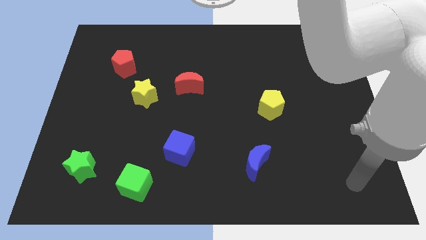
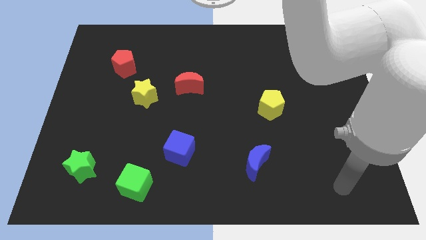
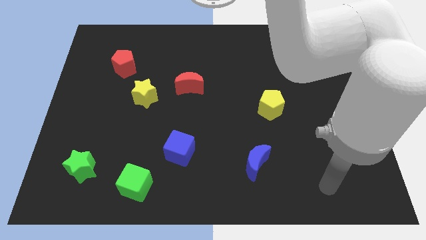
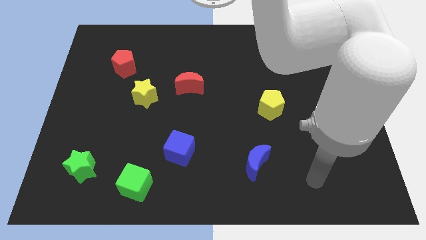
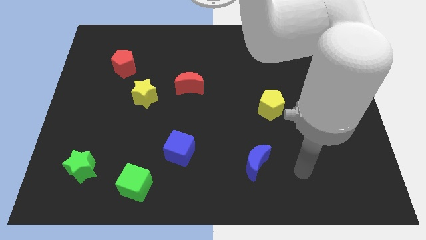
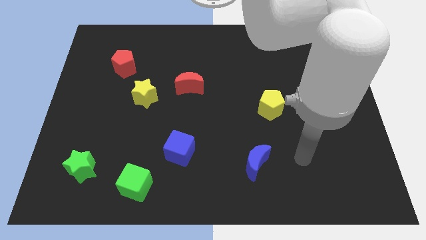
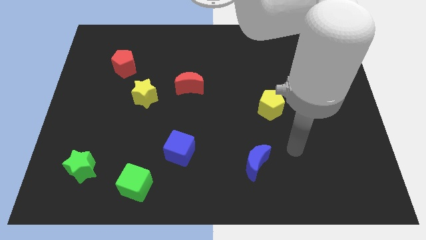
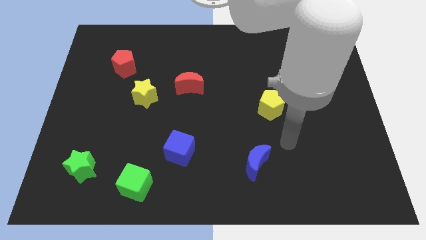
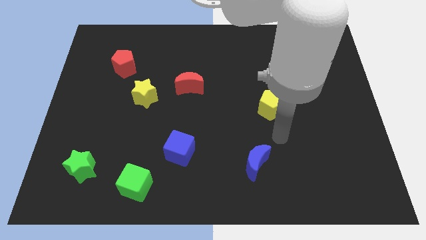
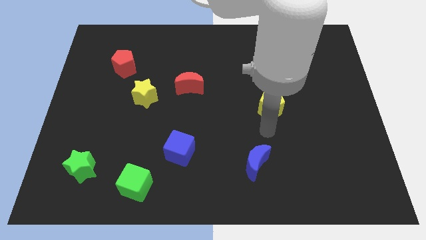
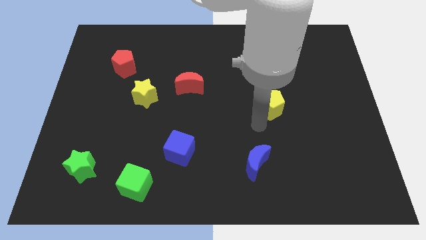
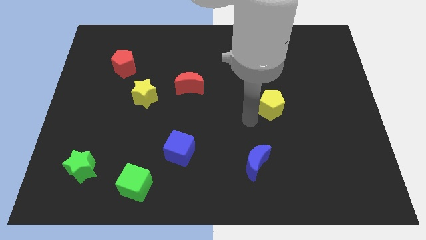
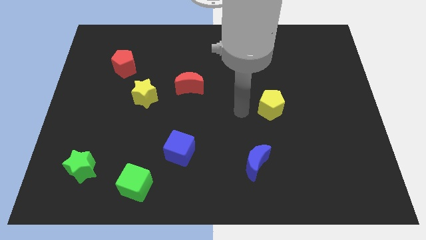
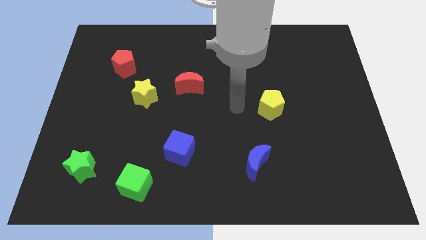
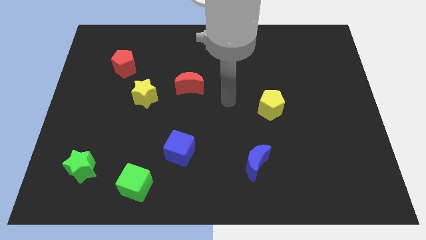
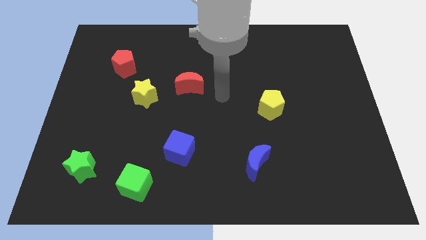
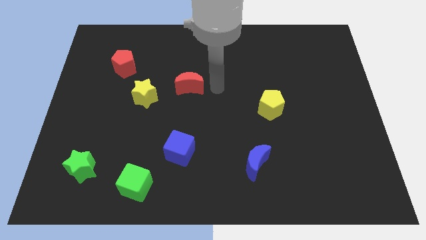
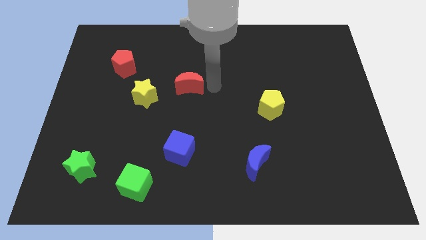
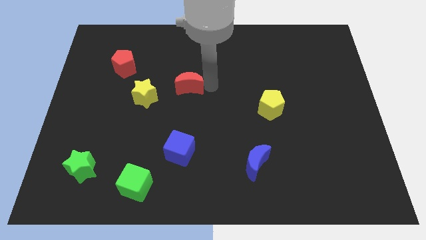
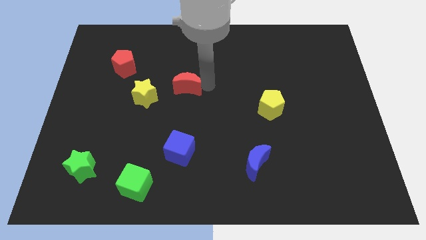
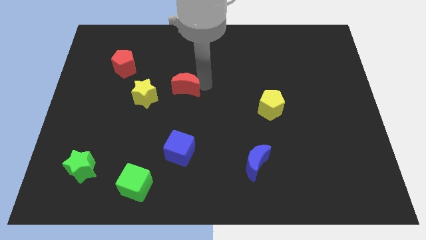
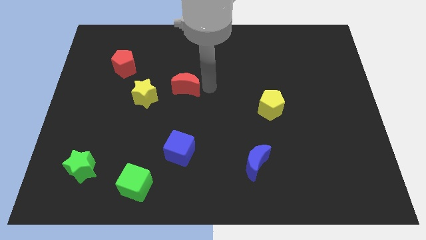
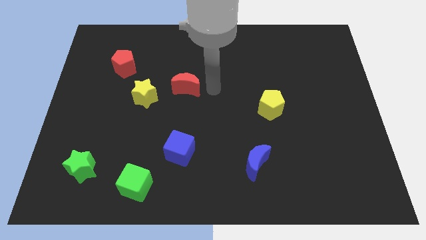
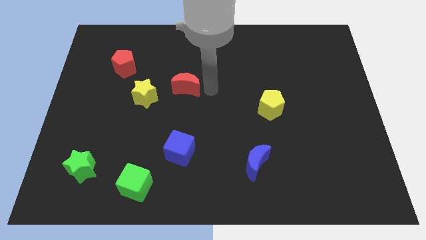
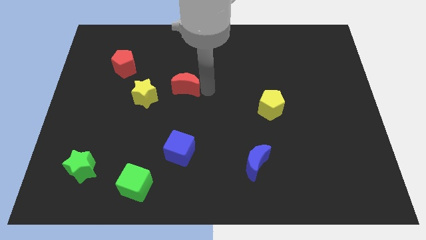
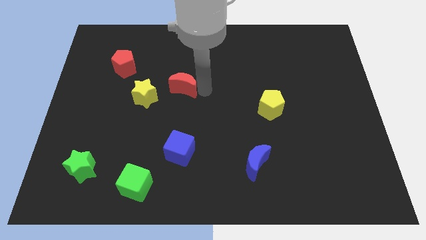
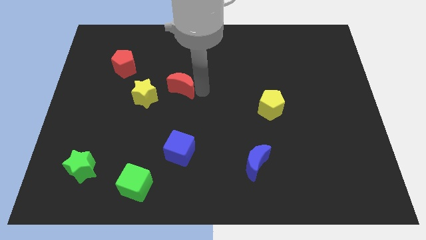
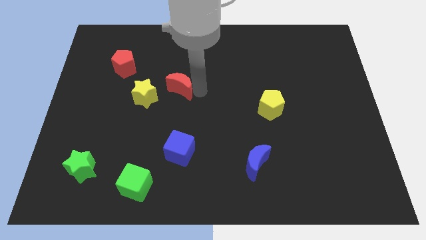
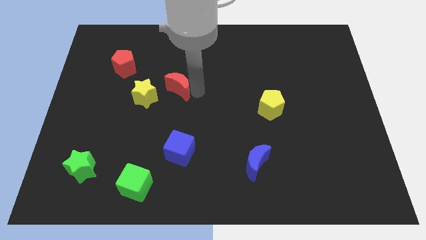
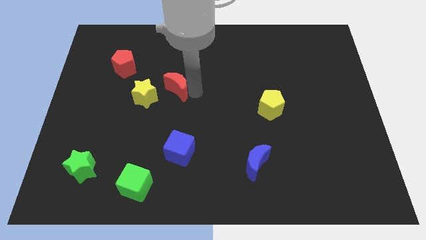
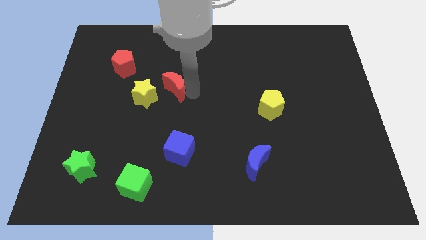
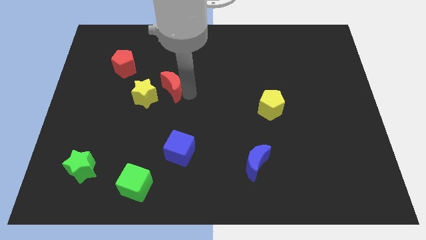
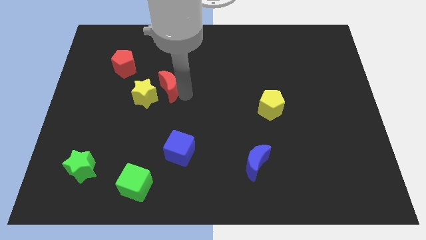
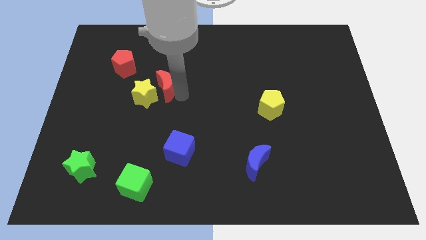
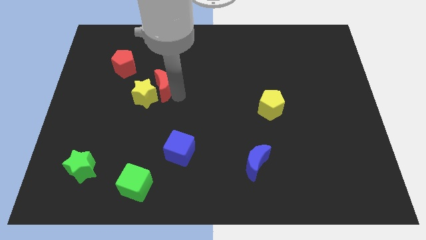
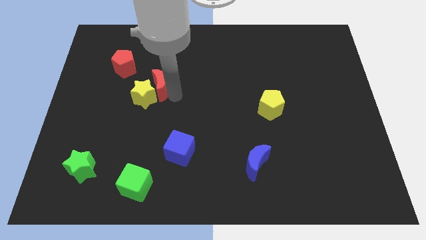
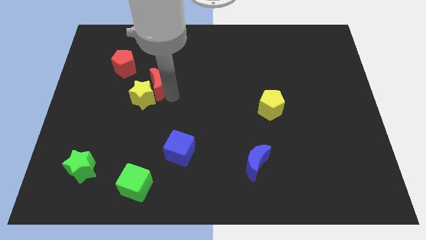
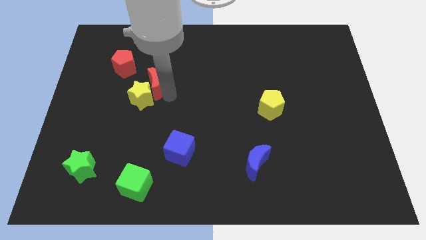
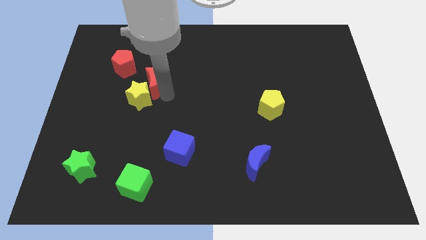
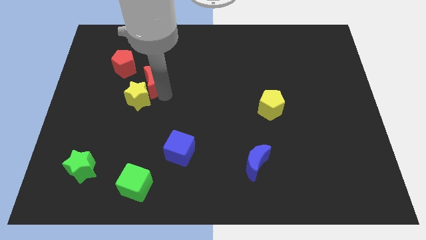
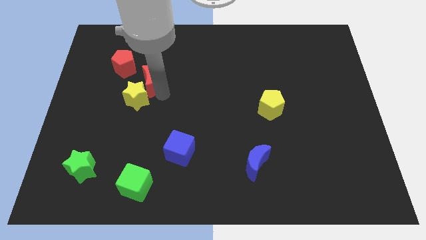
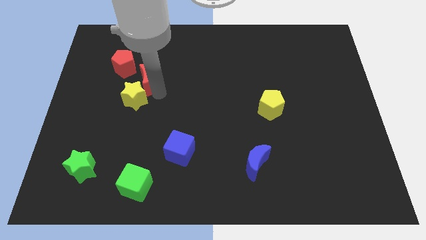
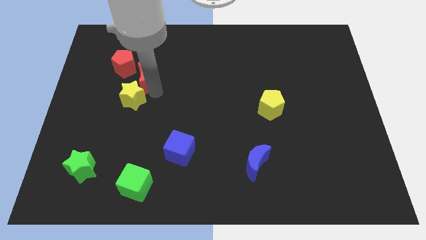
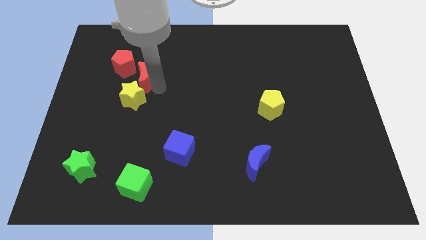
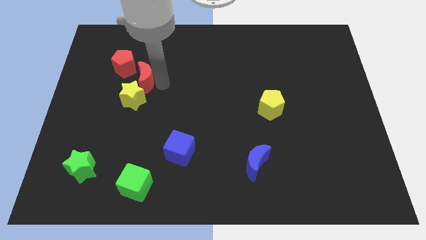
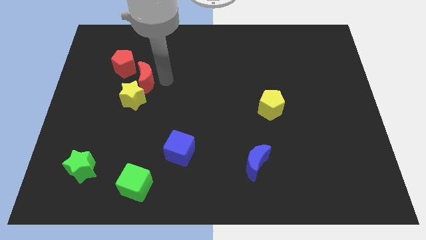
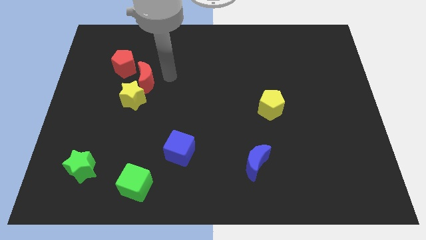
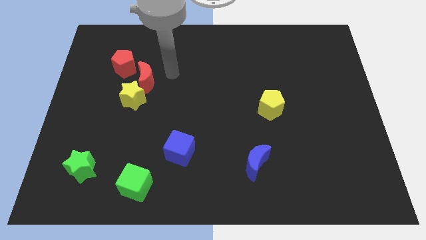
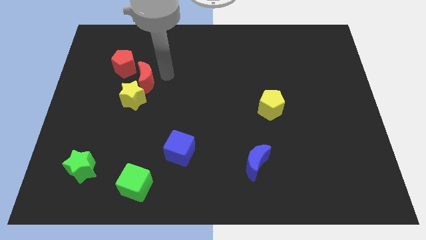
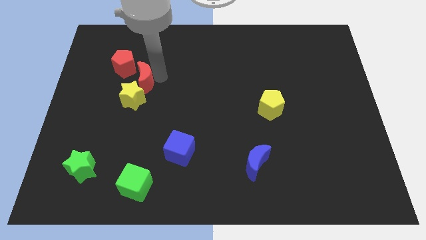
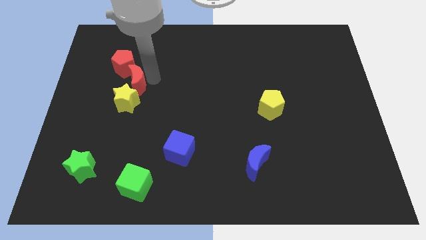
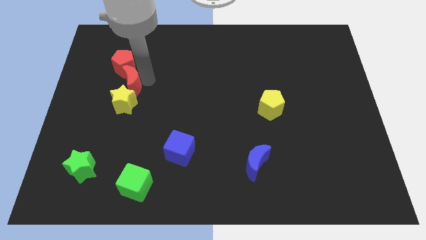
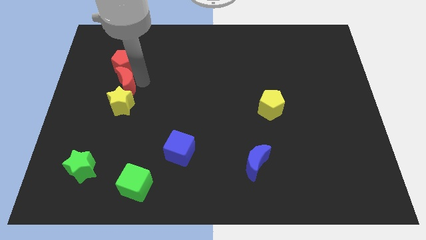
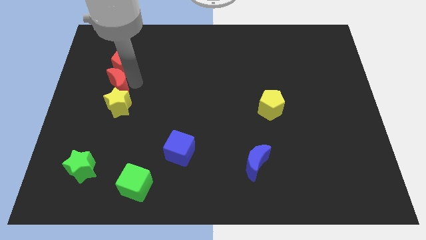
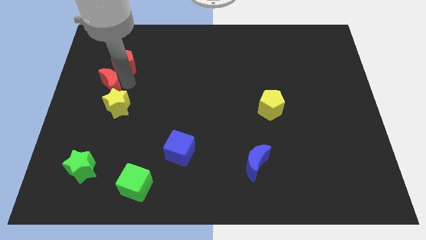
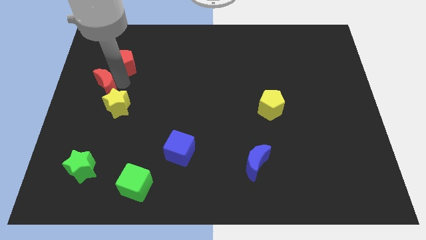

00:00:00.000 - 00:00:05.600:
slide the red moon to the left side
